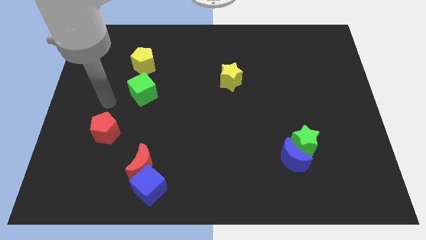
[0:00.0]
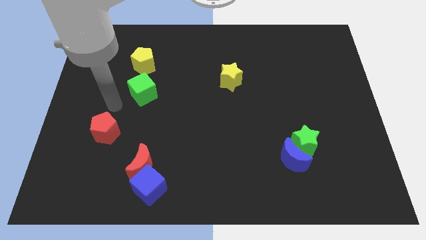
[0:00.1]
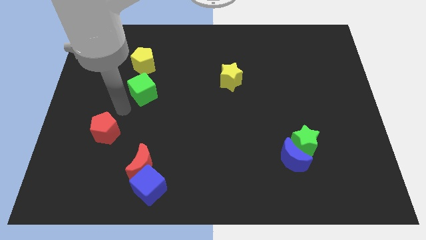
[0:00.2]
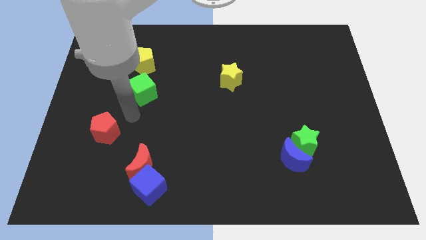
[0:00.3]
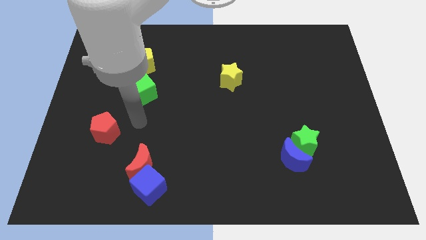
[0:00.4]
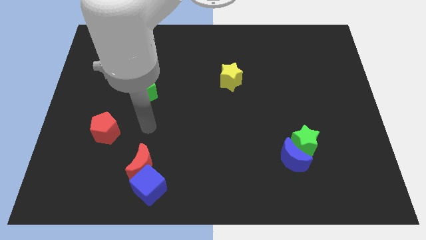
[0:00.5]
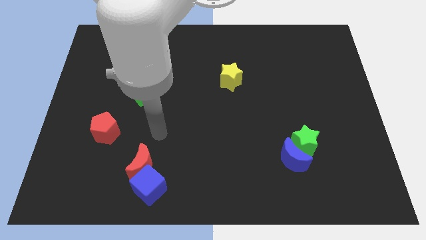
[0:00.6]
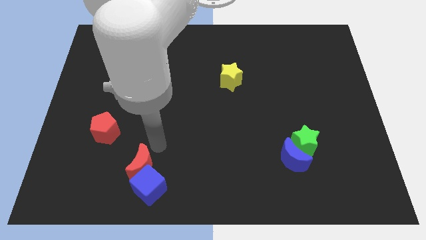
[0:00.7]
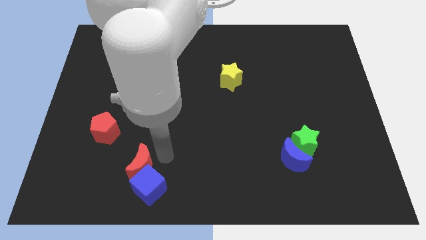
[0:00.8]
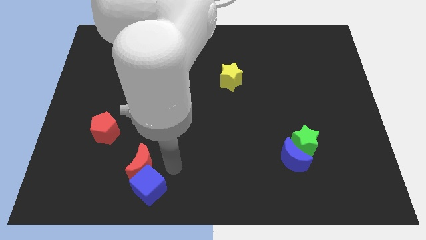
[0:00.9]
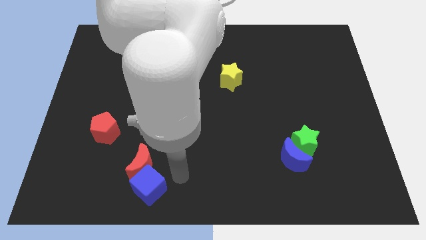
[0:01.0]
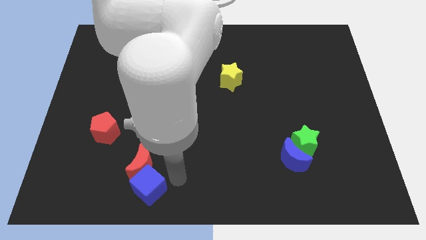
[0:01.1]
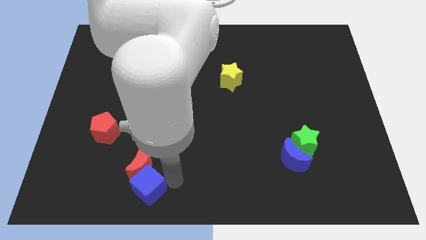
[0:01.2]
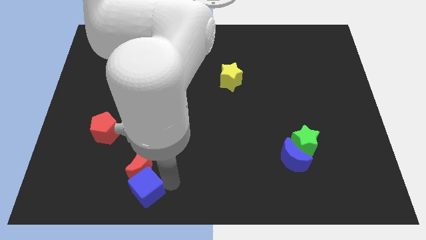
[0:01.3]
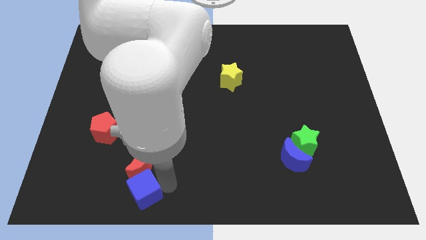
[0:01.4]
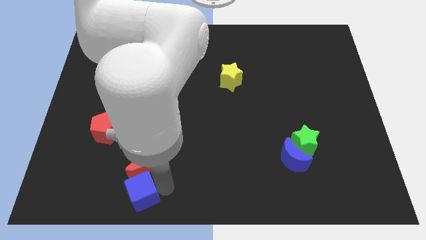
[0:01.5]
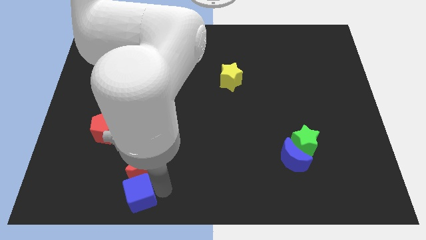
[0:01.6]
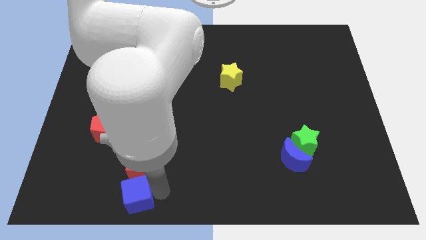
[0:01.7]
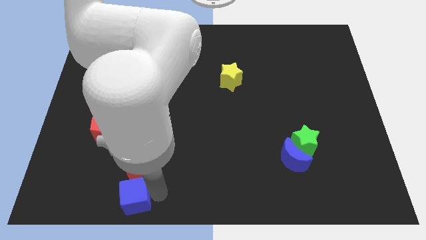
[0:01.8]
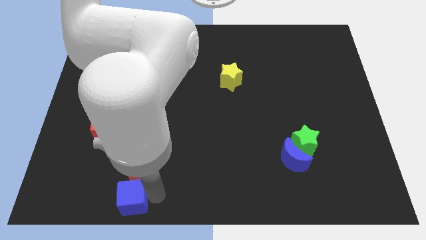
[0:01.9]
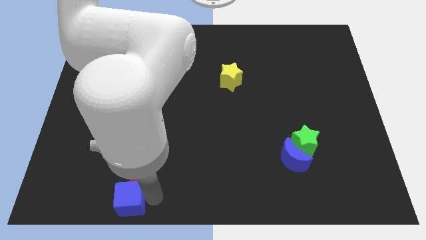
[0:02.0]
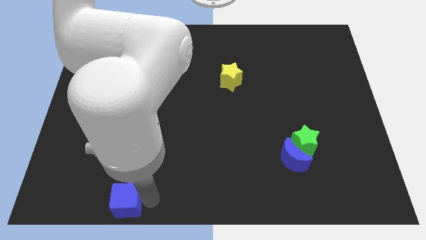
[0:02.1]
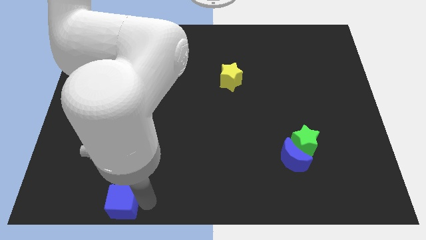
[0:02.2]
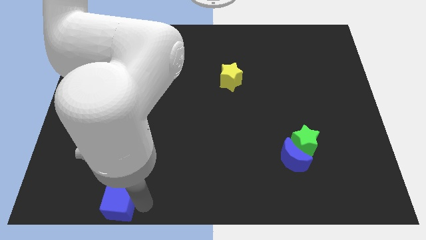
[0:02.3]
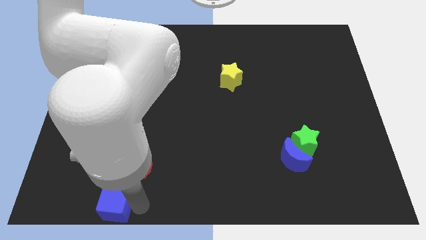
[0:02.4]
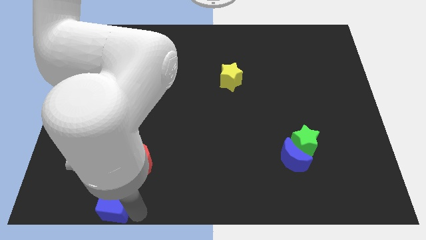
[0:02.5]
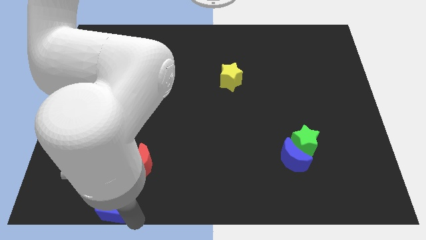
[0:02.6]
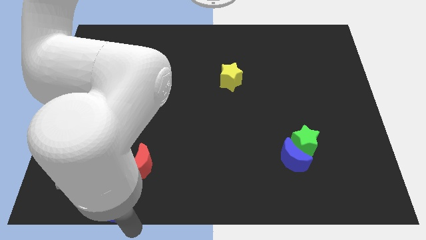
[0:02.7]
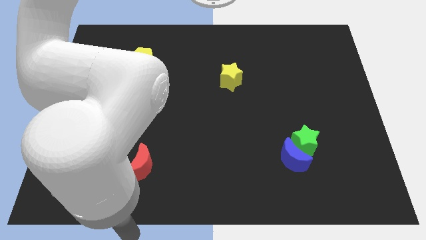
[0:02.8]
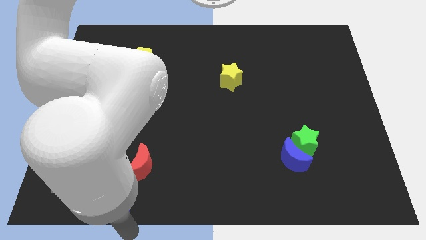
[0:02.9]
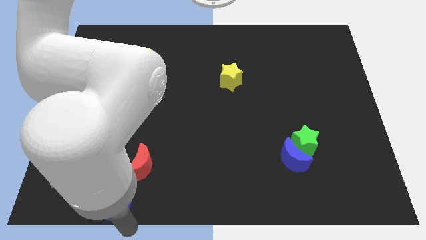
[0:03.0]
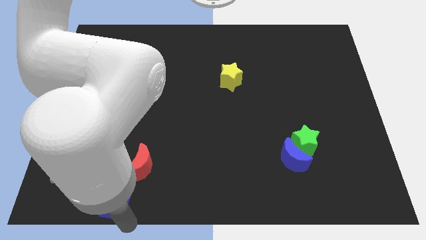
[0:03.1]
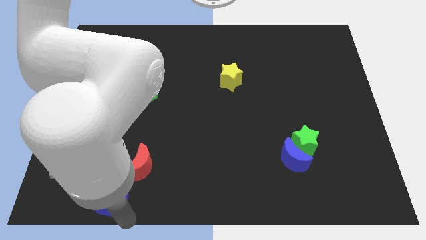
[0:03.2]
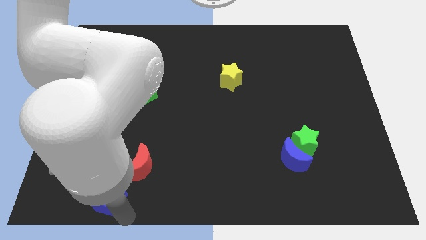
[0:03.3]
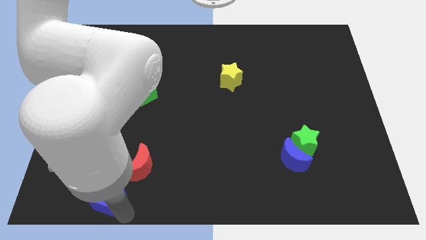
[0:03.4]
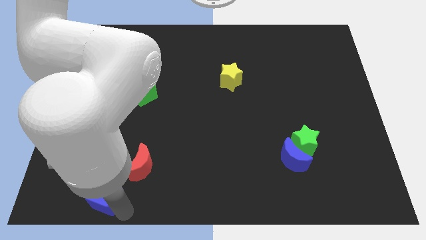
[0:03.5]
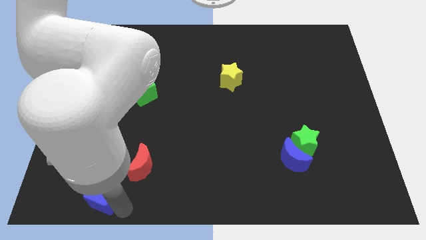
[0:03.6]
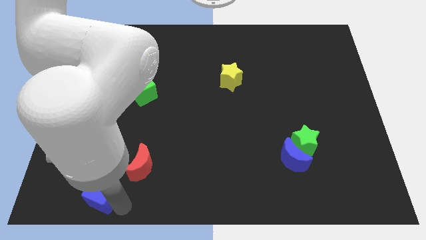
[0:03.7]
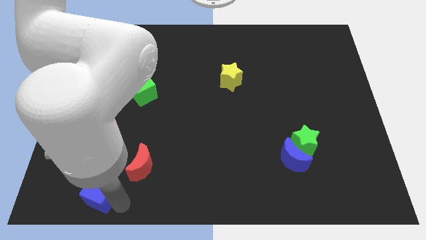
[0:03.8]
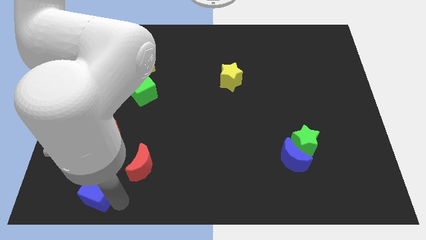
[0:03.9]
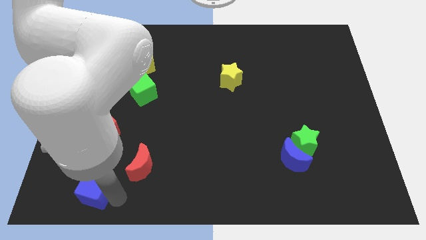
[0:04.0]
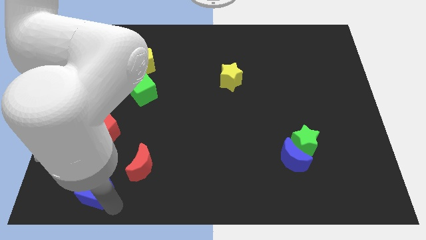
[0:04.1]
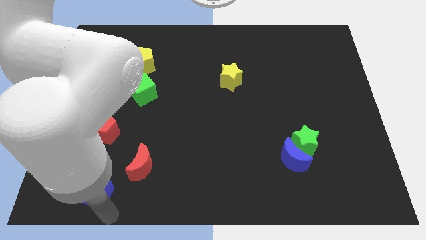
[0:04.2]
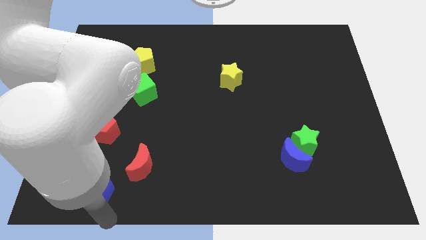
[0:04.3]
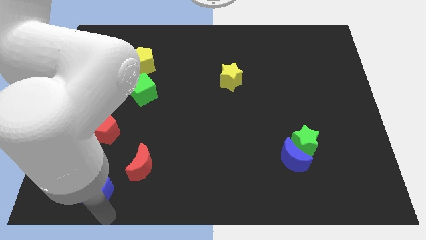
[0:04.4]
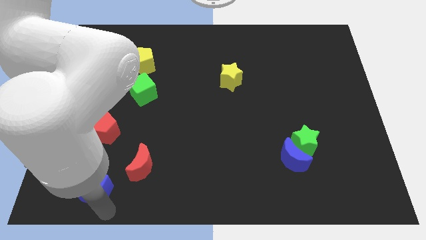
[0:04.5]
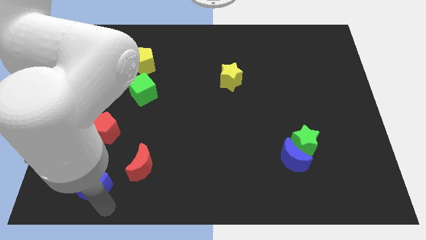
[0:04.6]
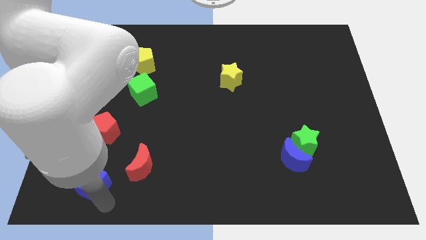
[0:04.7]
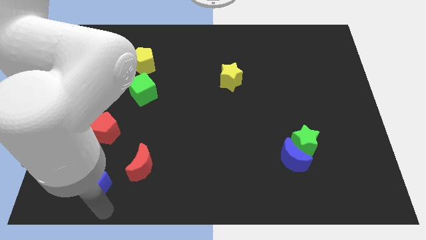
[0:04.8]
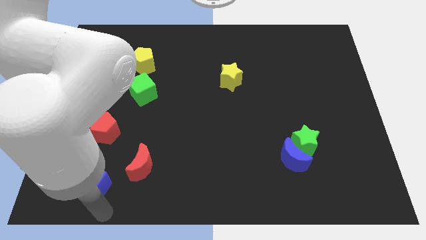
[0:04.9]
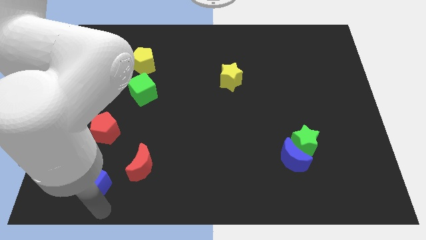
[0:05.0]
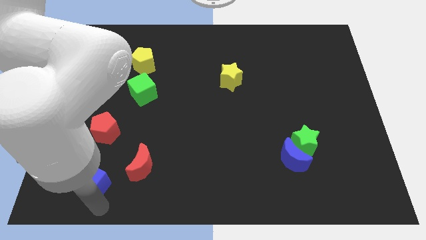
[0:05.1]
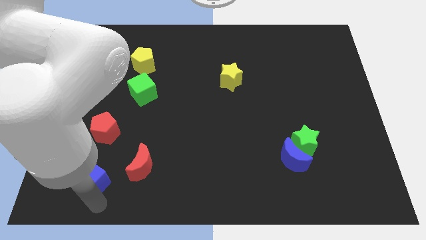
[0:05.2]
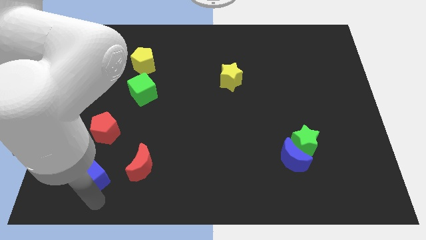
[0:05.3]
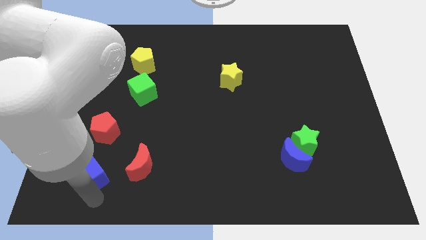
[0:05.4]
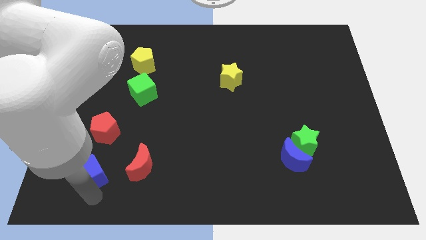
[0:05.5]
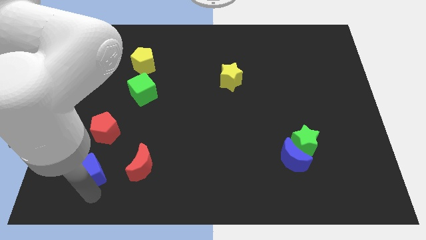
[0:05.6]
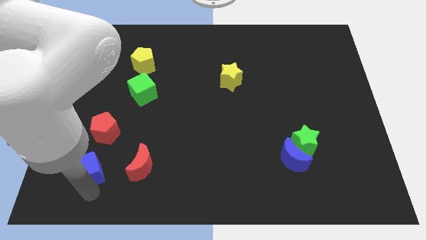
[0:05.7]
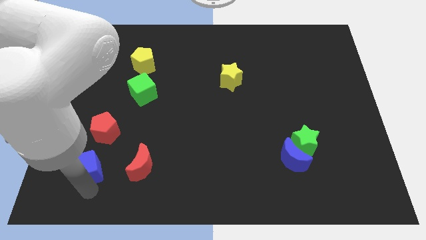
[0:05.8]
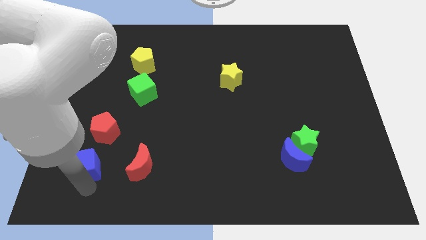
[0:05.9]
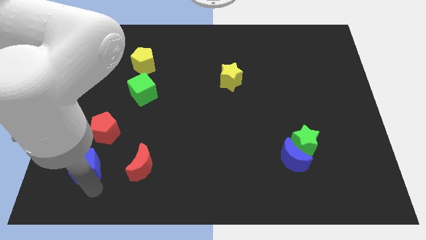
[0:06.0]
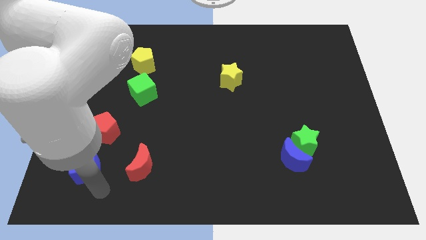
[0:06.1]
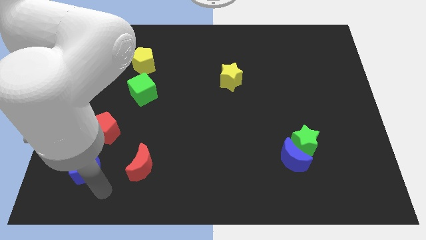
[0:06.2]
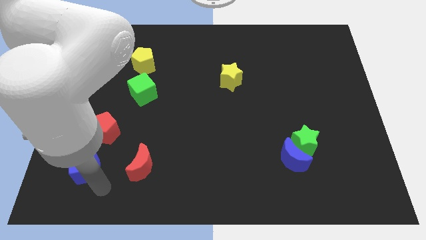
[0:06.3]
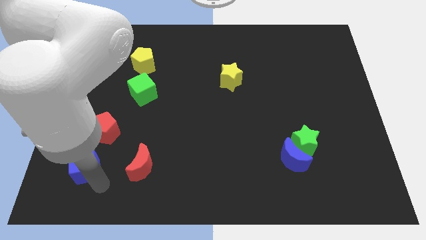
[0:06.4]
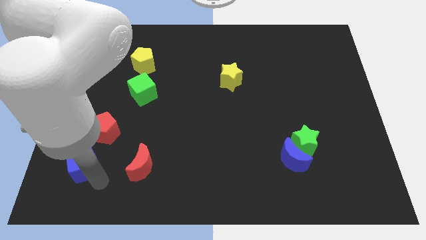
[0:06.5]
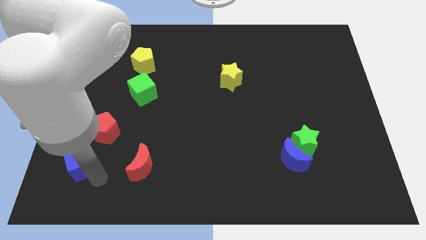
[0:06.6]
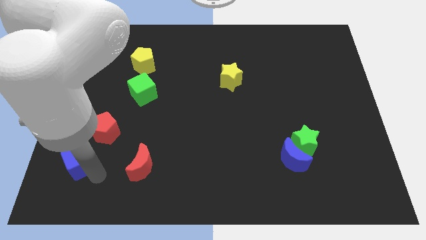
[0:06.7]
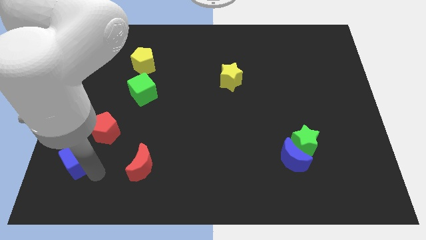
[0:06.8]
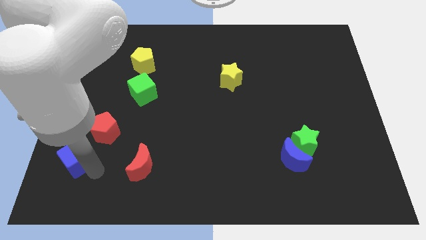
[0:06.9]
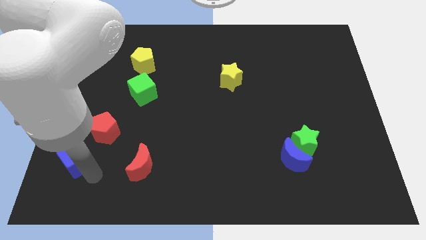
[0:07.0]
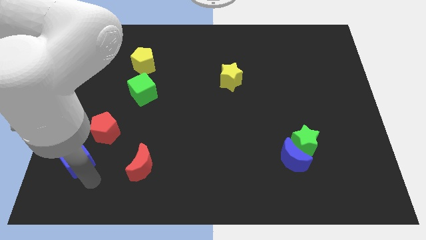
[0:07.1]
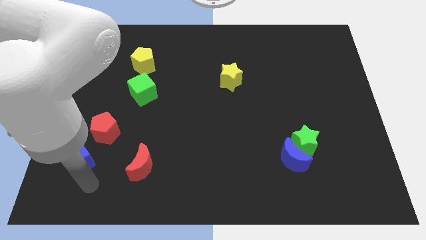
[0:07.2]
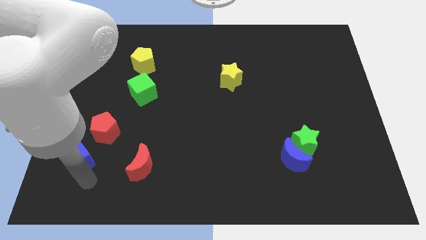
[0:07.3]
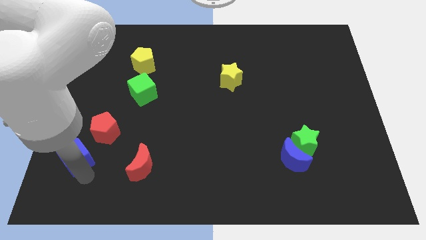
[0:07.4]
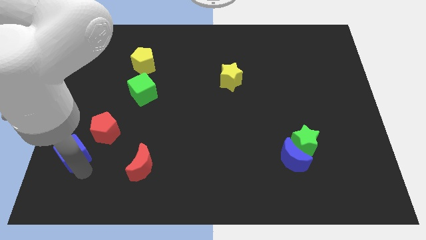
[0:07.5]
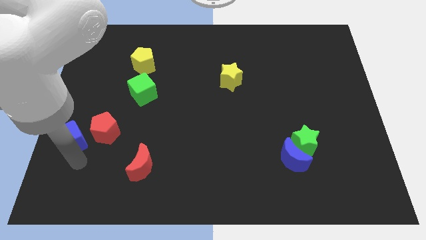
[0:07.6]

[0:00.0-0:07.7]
move the blue cube to the center left
